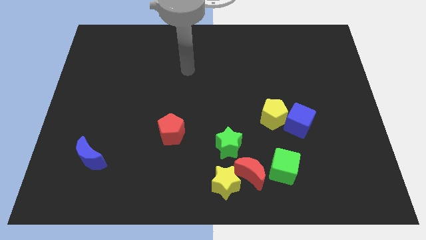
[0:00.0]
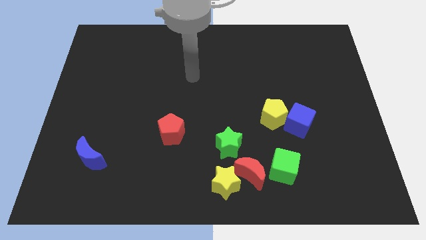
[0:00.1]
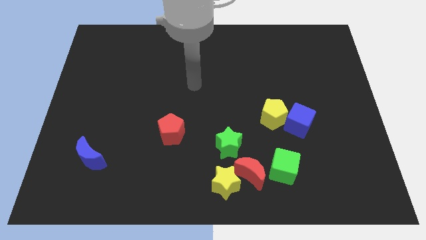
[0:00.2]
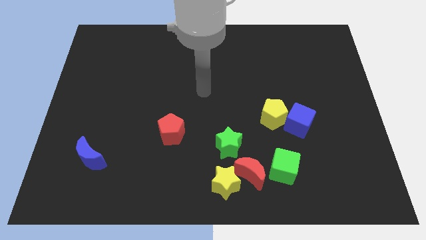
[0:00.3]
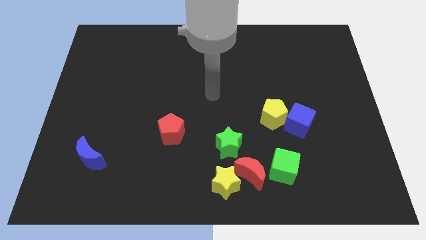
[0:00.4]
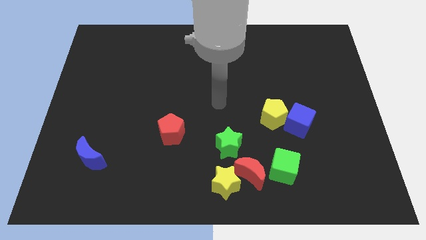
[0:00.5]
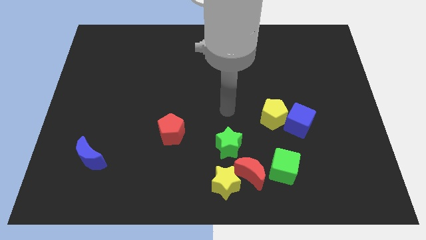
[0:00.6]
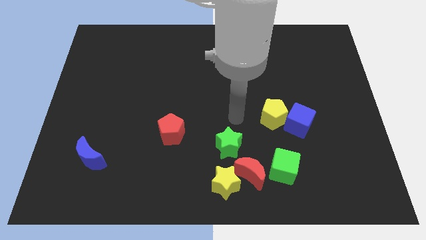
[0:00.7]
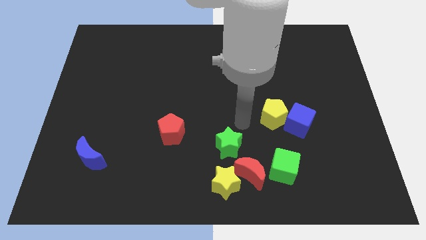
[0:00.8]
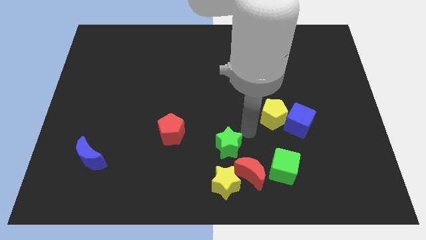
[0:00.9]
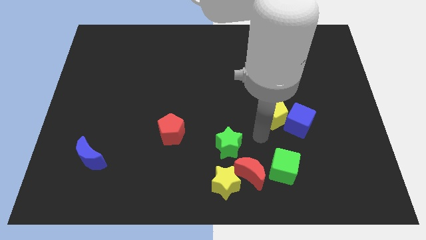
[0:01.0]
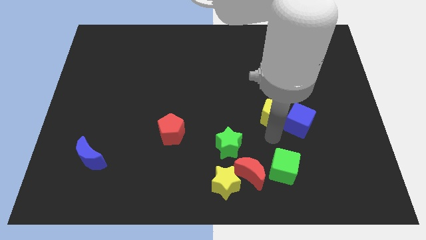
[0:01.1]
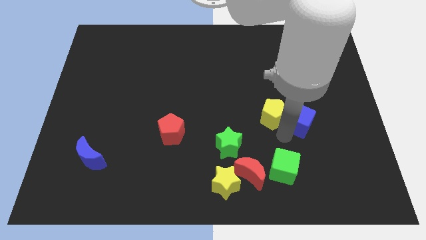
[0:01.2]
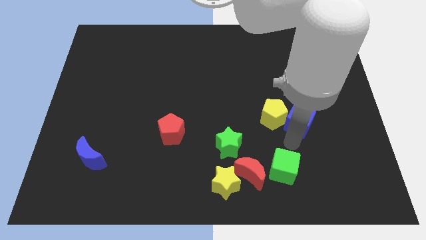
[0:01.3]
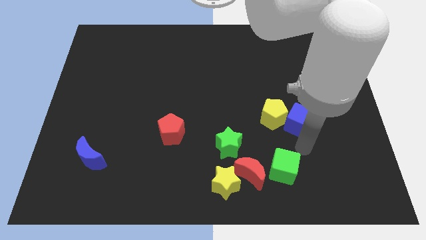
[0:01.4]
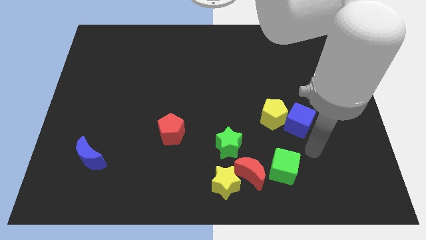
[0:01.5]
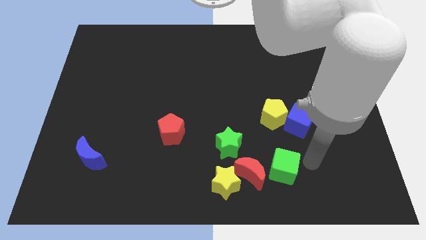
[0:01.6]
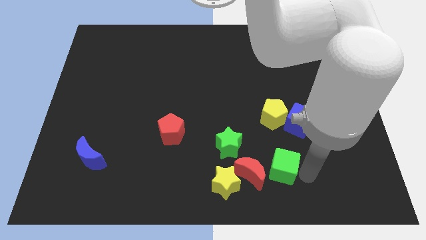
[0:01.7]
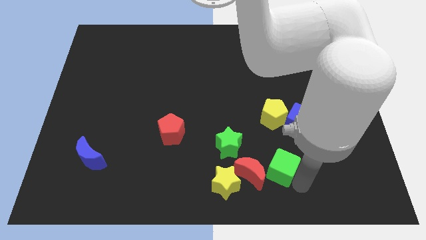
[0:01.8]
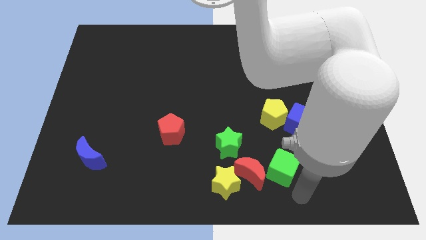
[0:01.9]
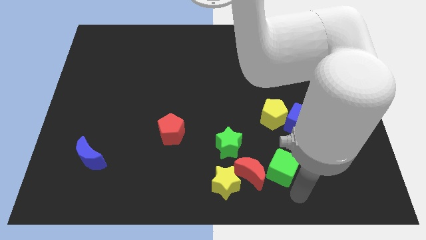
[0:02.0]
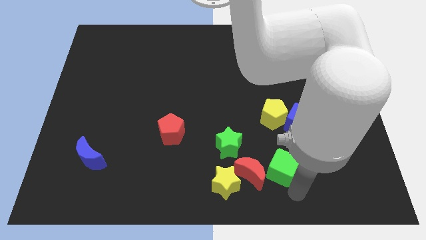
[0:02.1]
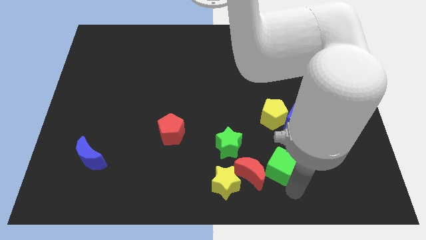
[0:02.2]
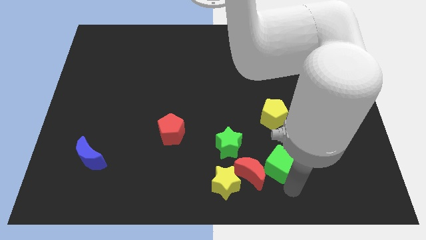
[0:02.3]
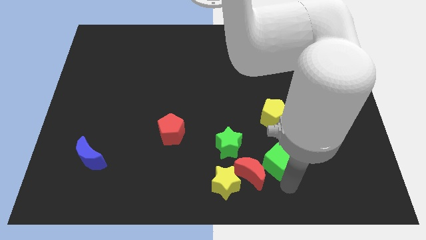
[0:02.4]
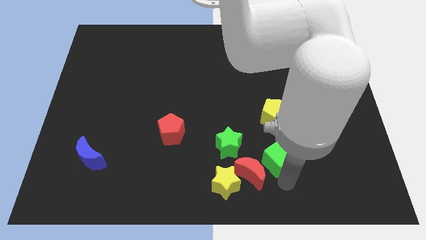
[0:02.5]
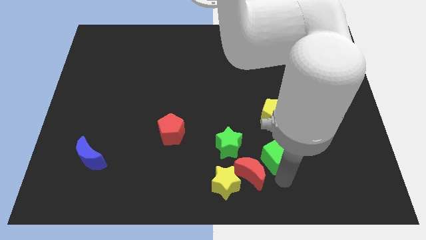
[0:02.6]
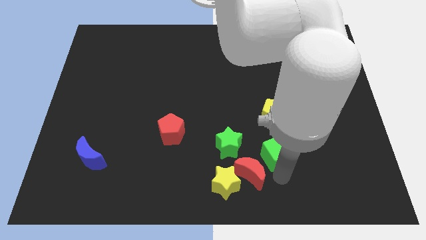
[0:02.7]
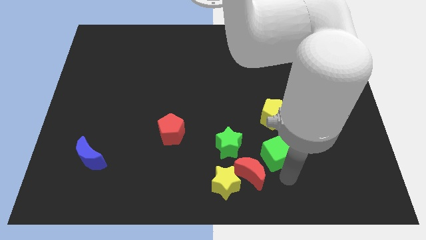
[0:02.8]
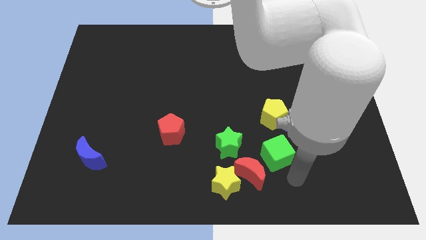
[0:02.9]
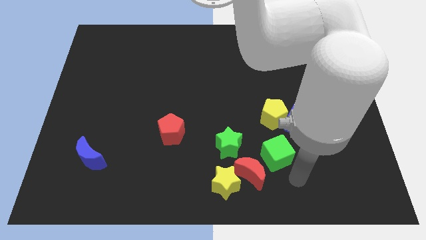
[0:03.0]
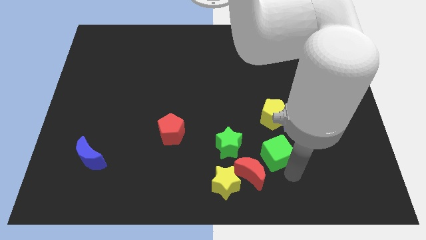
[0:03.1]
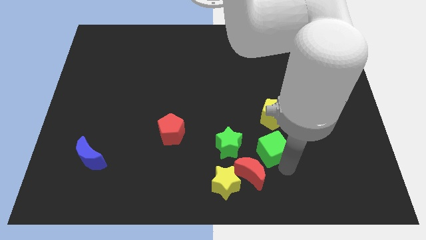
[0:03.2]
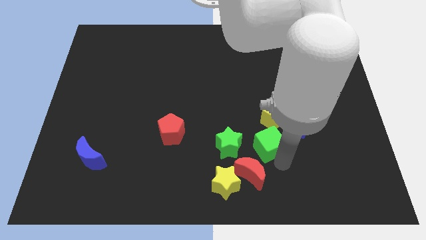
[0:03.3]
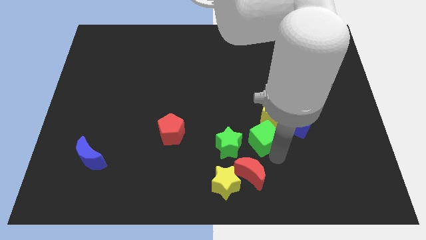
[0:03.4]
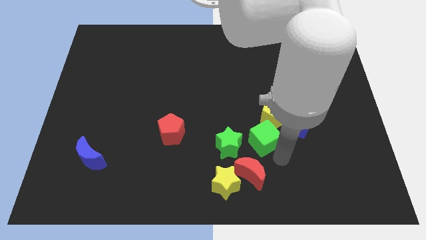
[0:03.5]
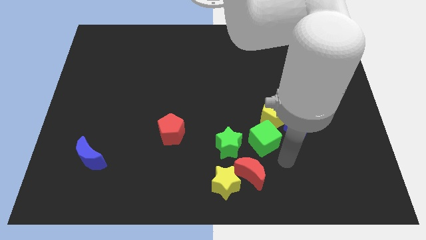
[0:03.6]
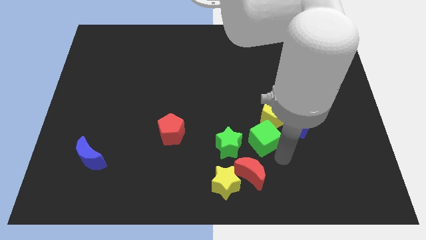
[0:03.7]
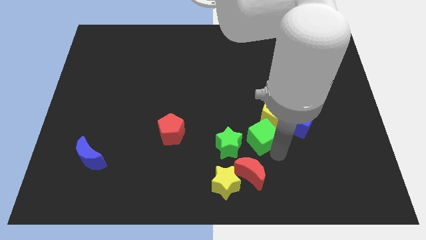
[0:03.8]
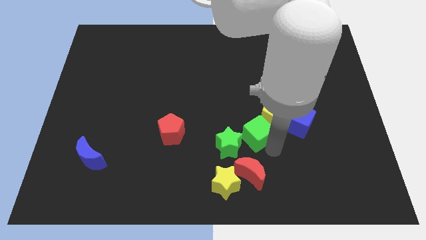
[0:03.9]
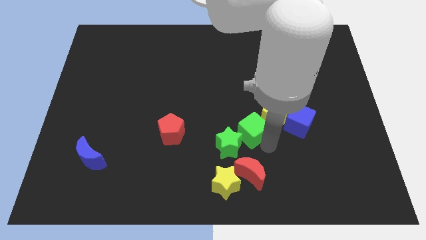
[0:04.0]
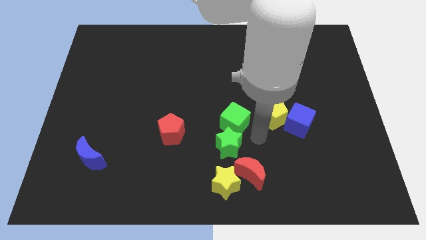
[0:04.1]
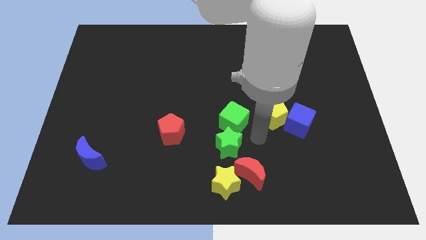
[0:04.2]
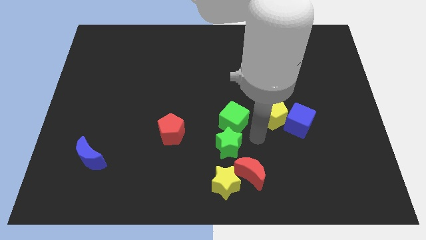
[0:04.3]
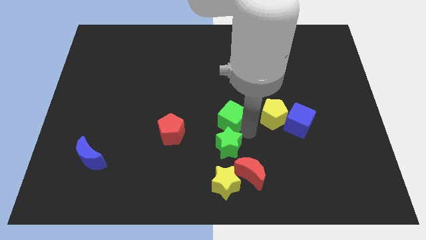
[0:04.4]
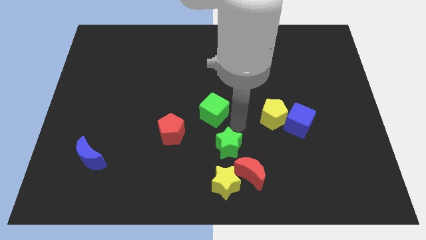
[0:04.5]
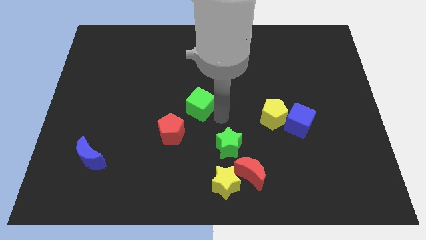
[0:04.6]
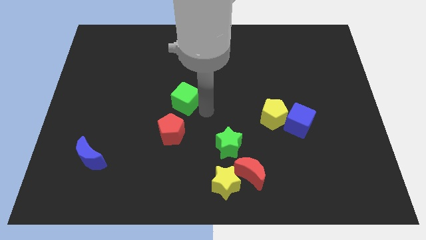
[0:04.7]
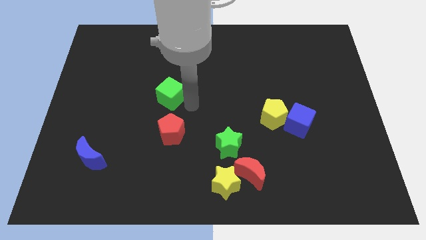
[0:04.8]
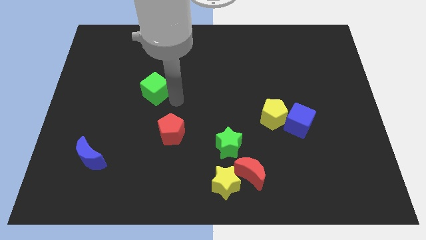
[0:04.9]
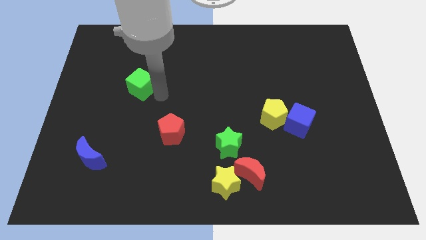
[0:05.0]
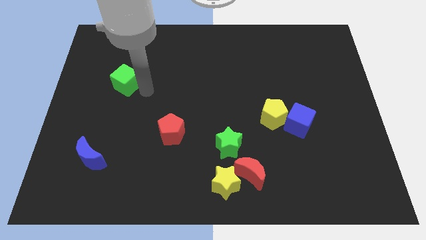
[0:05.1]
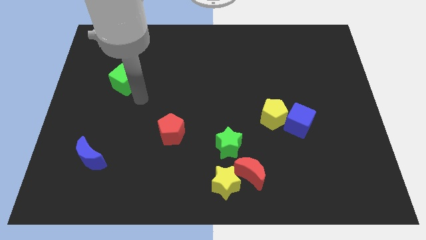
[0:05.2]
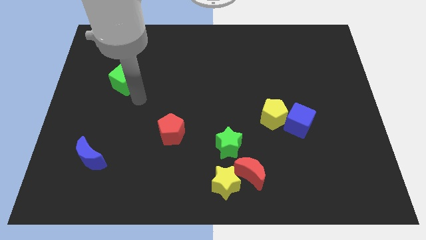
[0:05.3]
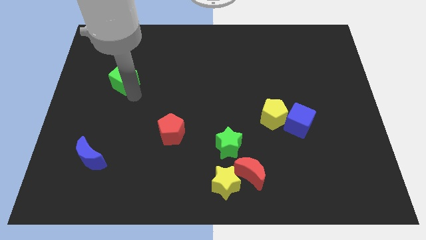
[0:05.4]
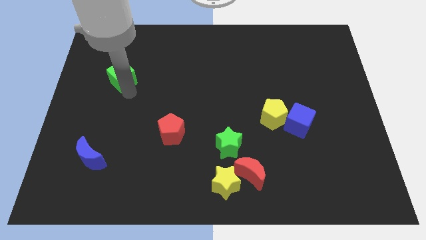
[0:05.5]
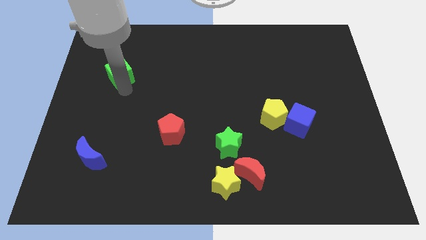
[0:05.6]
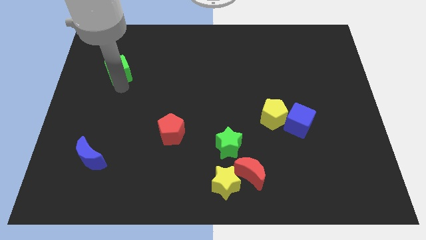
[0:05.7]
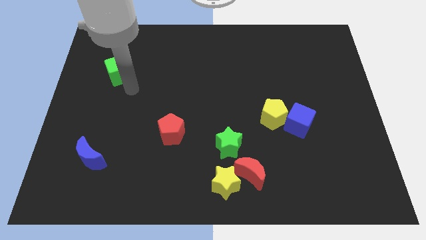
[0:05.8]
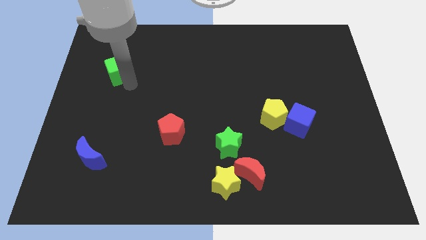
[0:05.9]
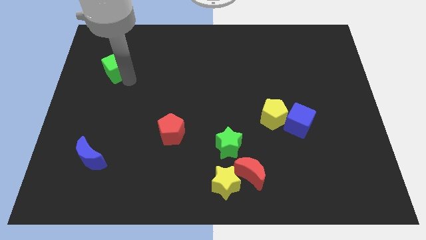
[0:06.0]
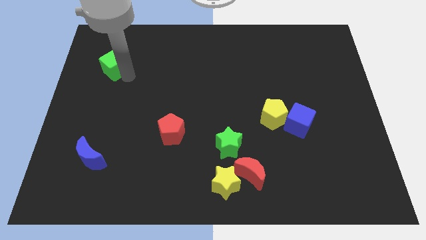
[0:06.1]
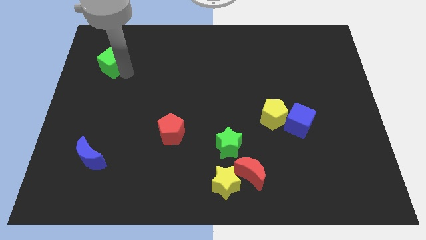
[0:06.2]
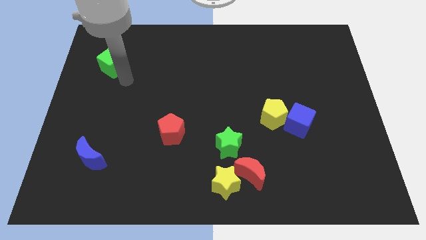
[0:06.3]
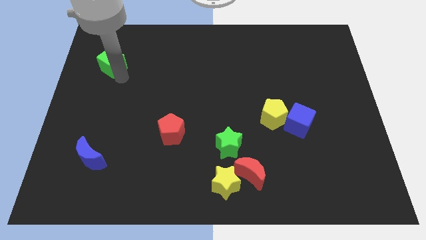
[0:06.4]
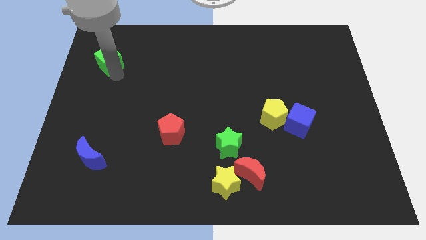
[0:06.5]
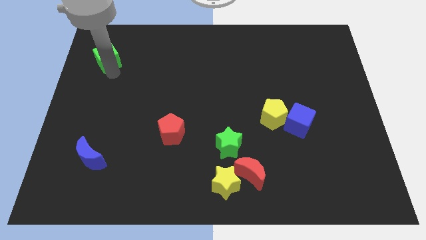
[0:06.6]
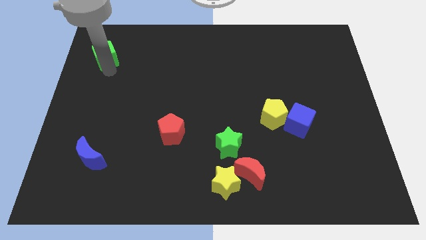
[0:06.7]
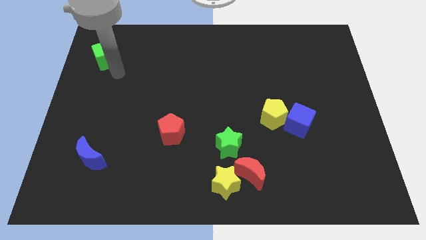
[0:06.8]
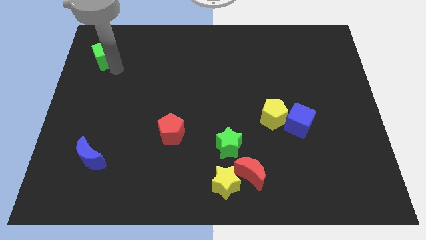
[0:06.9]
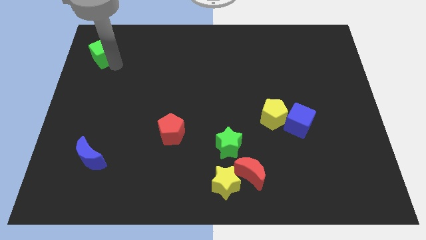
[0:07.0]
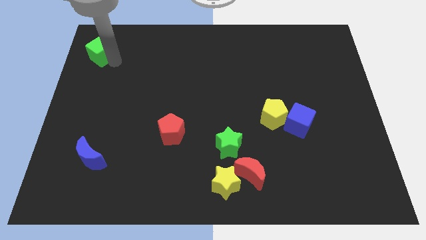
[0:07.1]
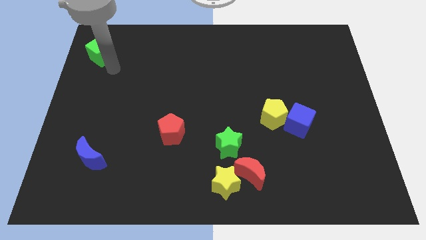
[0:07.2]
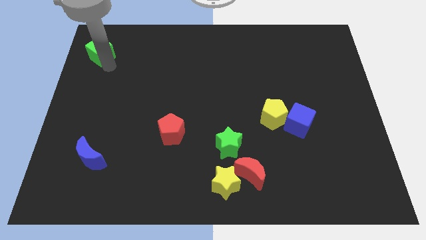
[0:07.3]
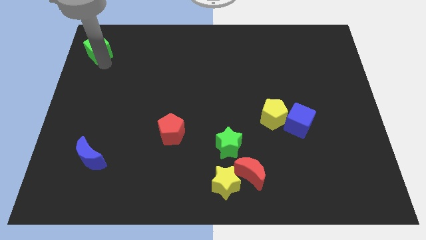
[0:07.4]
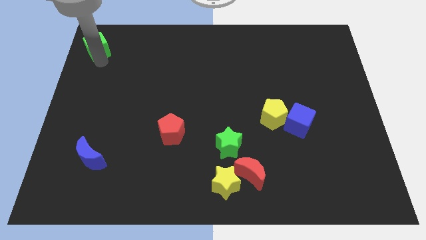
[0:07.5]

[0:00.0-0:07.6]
slide the green cube to the top left
